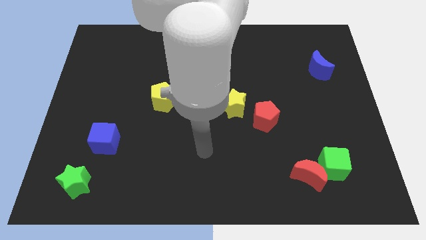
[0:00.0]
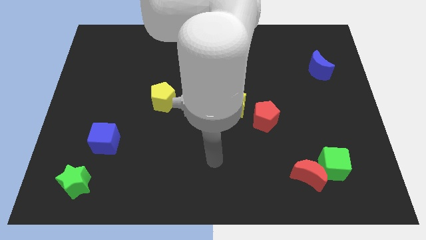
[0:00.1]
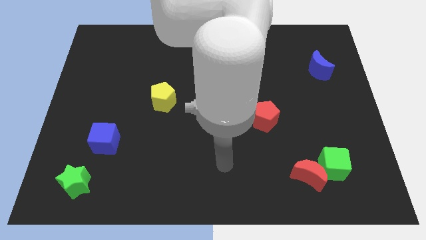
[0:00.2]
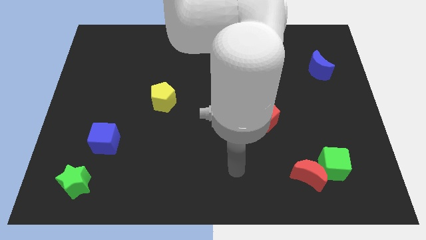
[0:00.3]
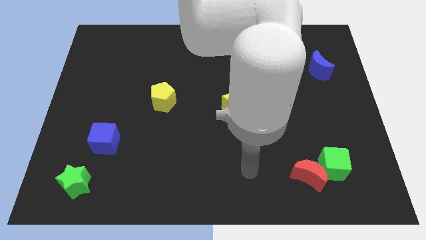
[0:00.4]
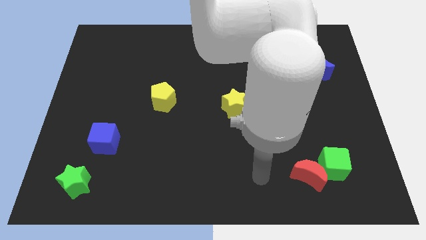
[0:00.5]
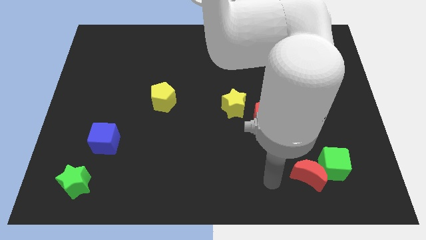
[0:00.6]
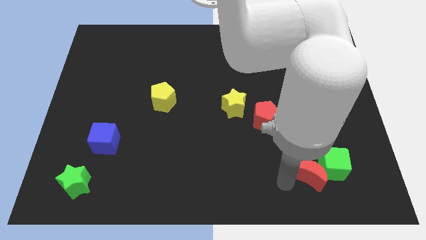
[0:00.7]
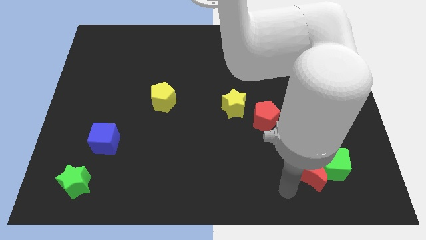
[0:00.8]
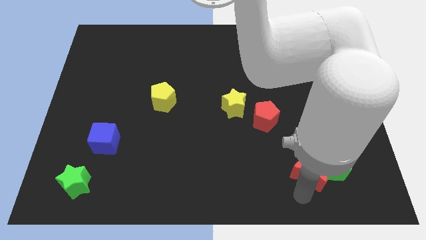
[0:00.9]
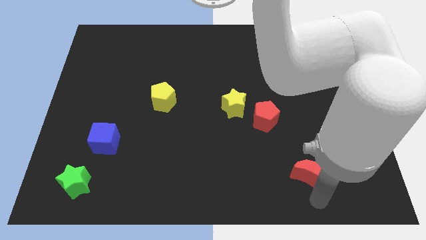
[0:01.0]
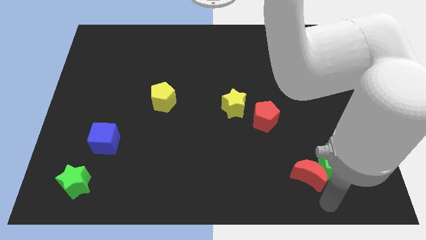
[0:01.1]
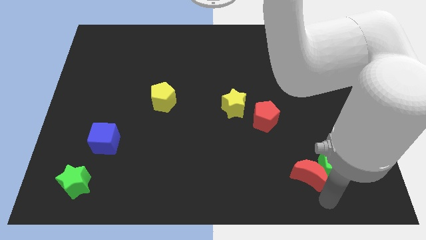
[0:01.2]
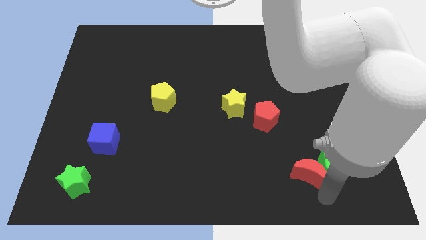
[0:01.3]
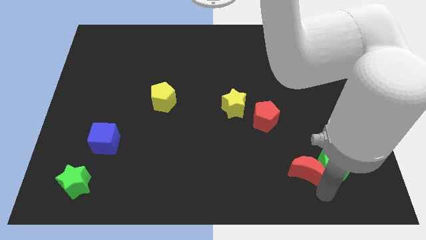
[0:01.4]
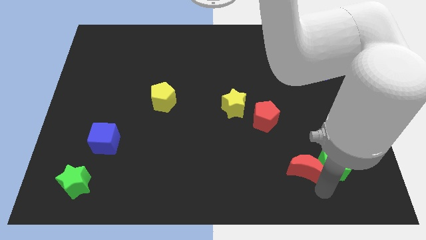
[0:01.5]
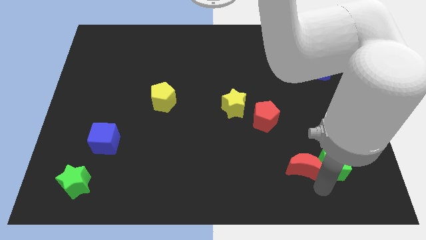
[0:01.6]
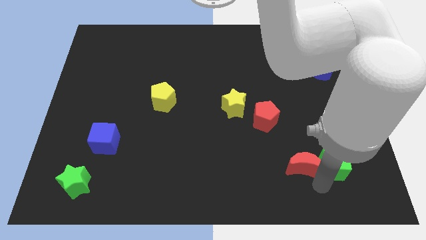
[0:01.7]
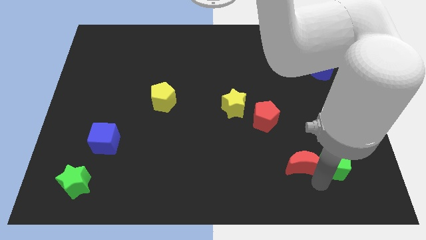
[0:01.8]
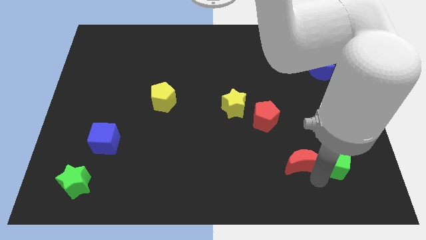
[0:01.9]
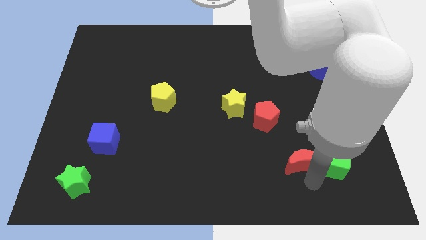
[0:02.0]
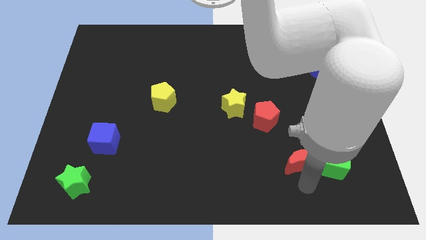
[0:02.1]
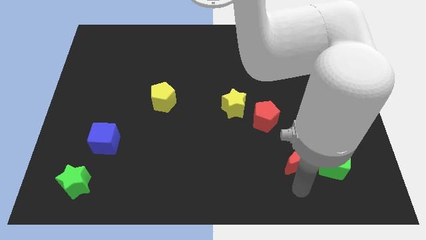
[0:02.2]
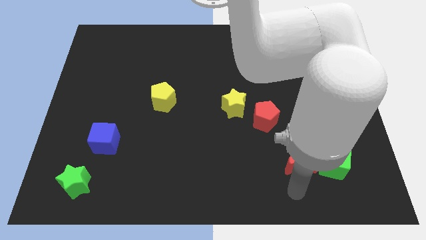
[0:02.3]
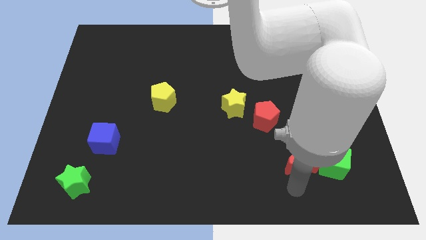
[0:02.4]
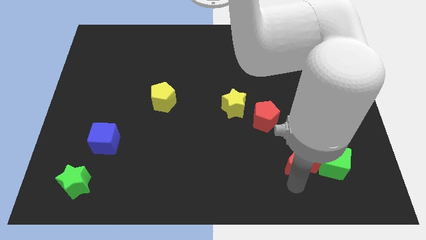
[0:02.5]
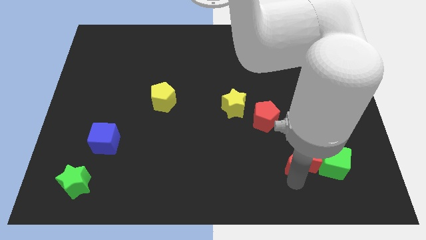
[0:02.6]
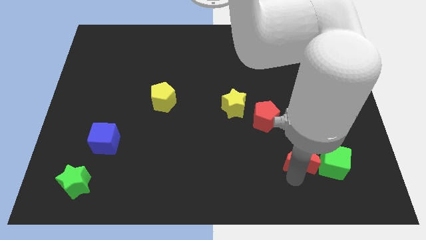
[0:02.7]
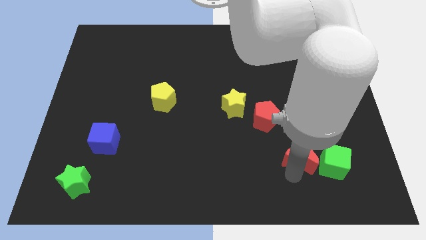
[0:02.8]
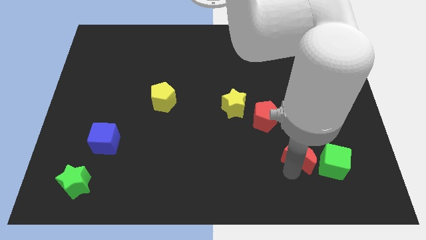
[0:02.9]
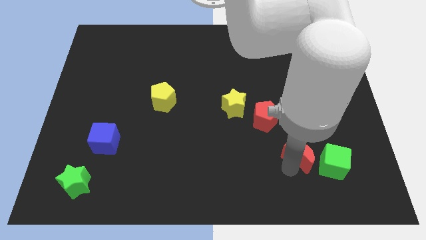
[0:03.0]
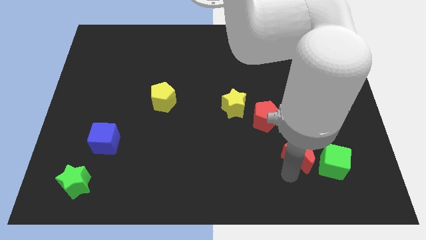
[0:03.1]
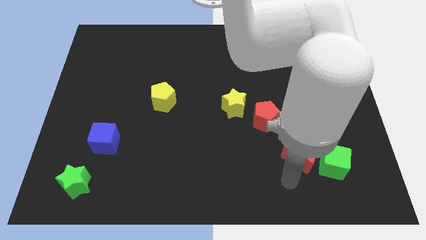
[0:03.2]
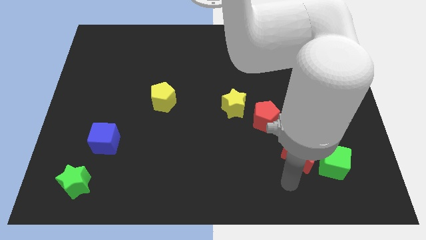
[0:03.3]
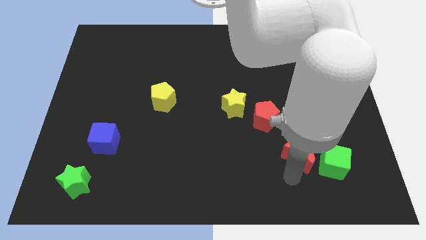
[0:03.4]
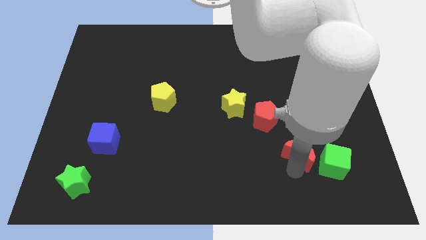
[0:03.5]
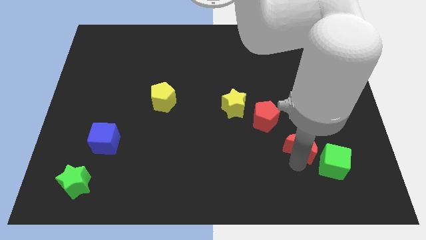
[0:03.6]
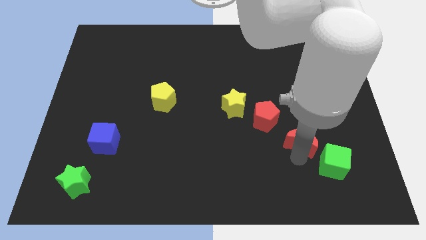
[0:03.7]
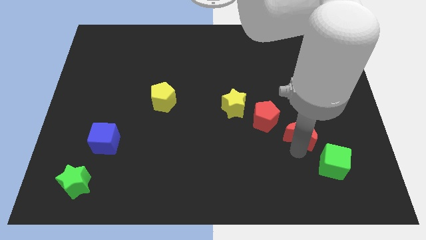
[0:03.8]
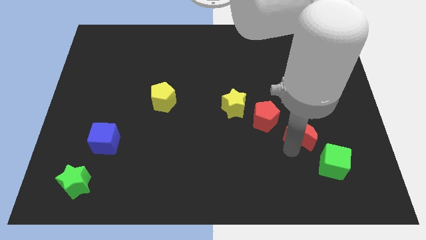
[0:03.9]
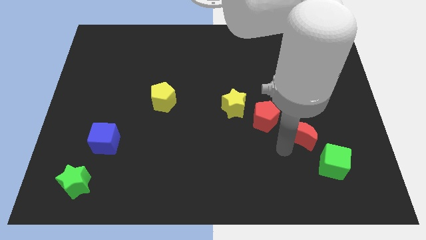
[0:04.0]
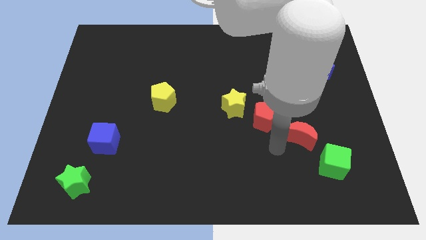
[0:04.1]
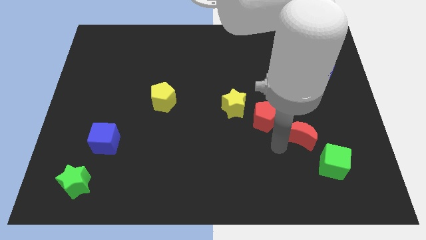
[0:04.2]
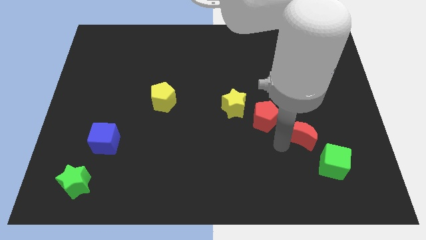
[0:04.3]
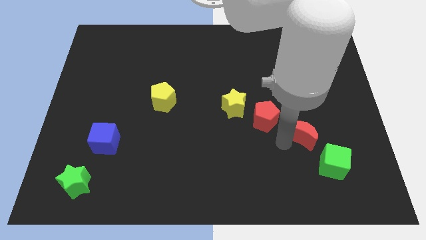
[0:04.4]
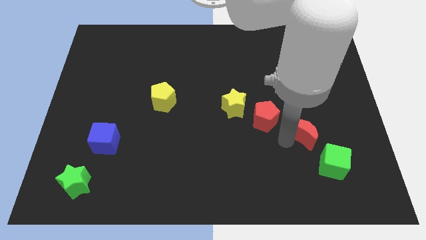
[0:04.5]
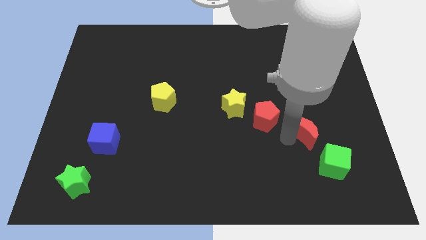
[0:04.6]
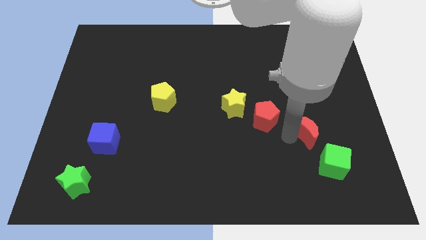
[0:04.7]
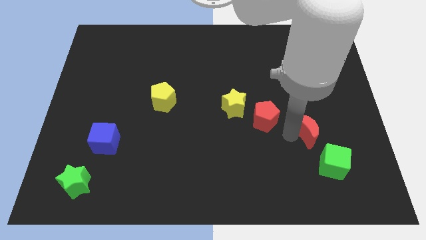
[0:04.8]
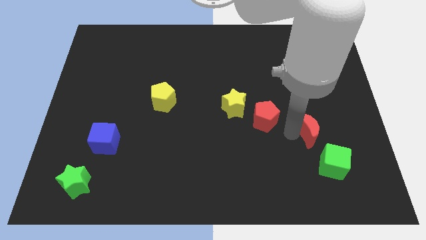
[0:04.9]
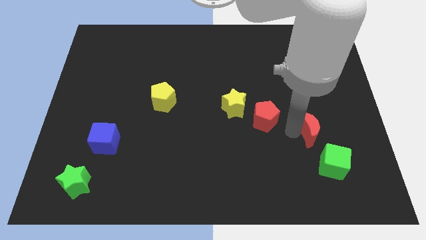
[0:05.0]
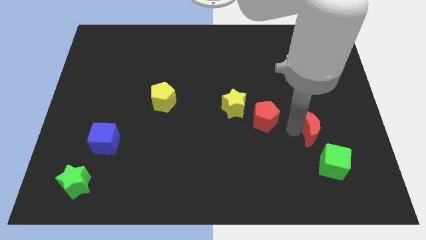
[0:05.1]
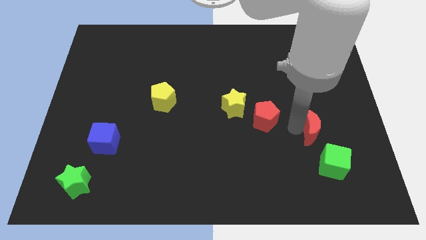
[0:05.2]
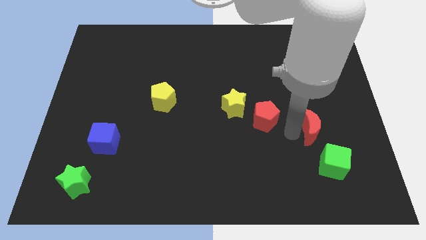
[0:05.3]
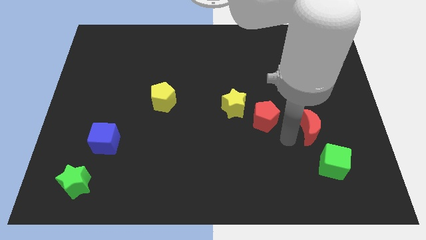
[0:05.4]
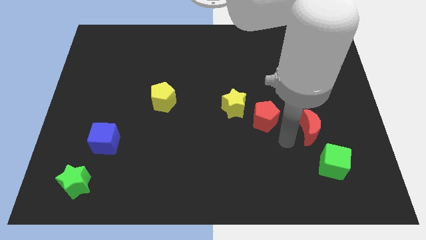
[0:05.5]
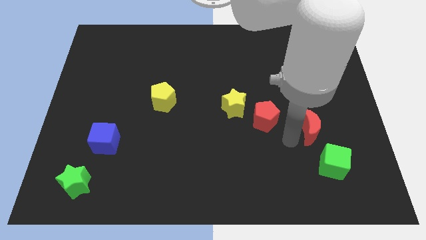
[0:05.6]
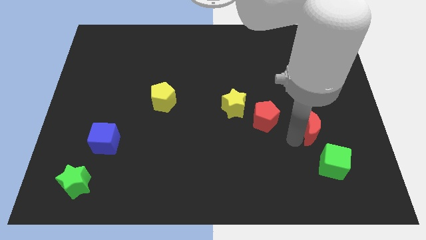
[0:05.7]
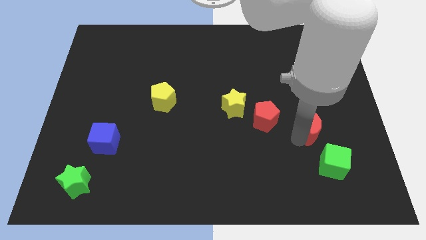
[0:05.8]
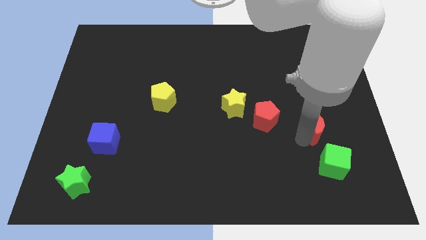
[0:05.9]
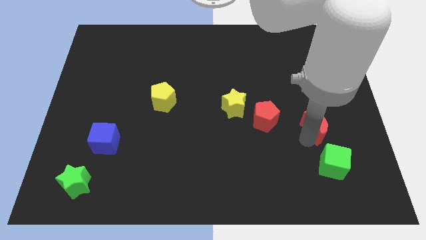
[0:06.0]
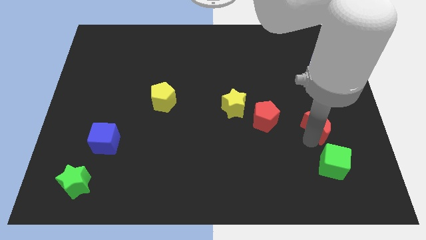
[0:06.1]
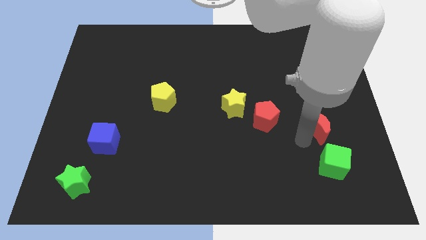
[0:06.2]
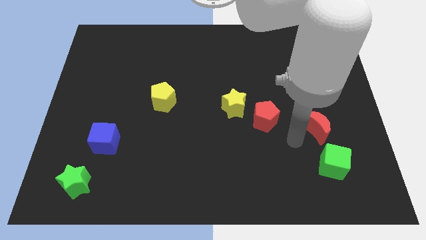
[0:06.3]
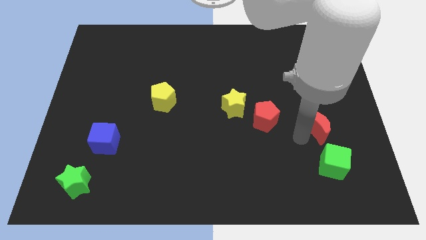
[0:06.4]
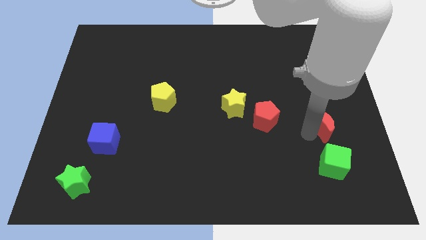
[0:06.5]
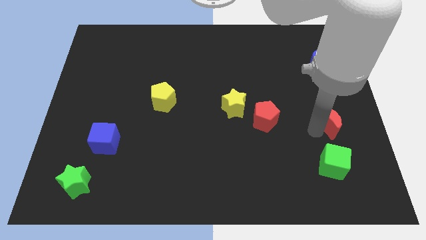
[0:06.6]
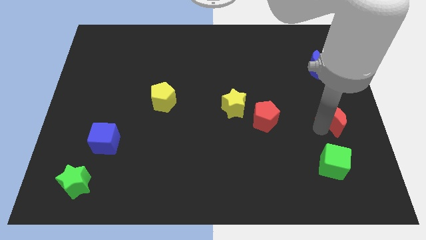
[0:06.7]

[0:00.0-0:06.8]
push the red moon to the right side
